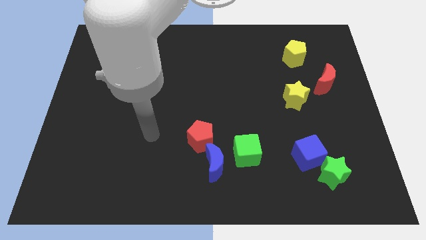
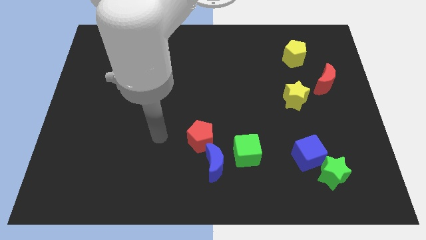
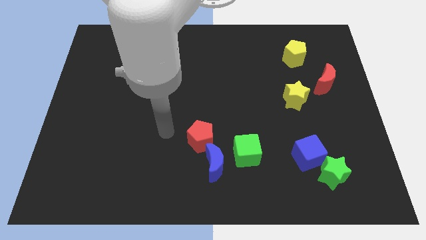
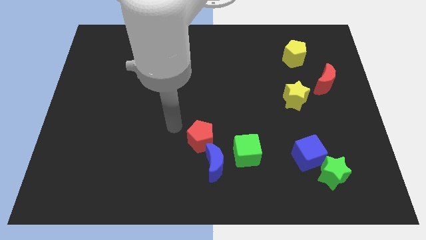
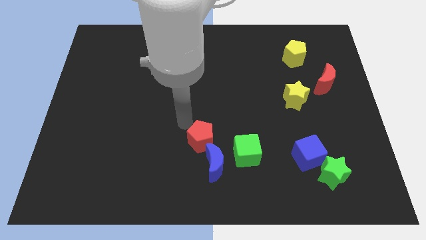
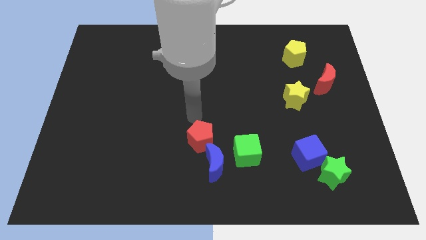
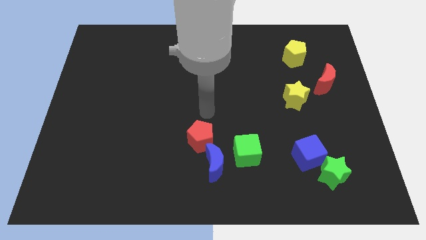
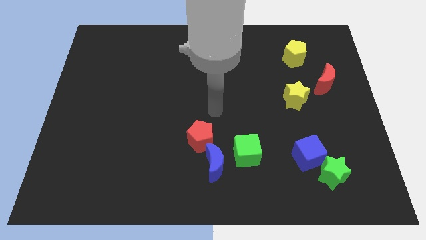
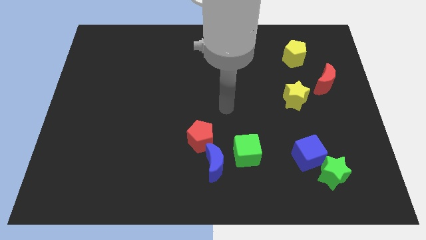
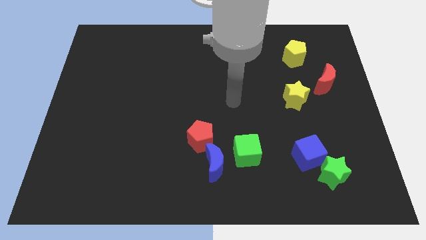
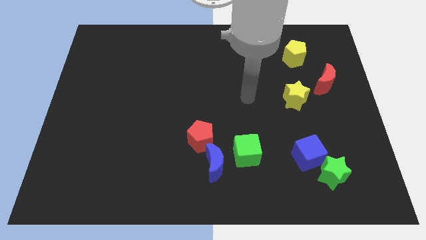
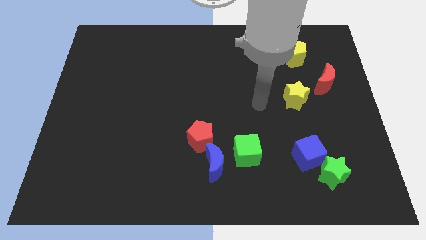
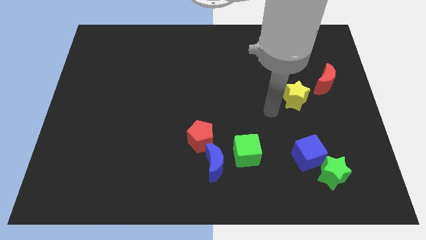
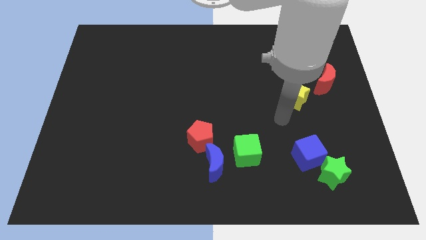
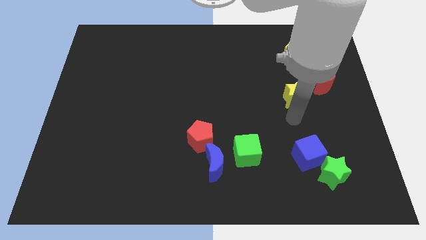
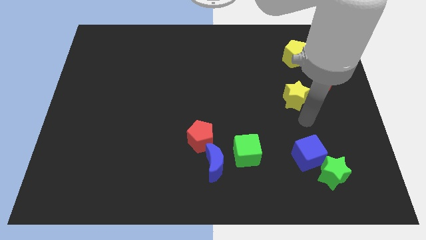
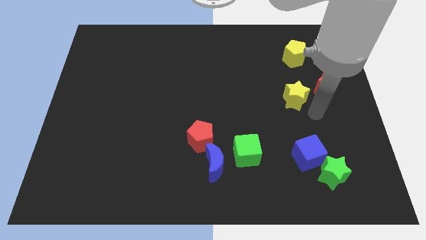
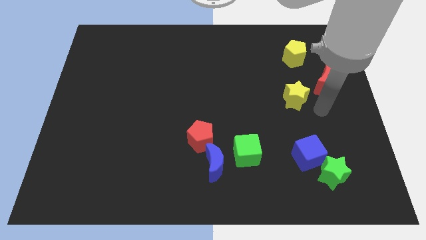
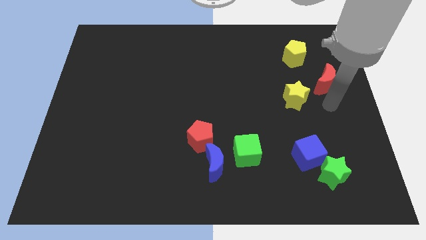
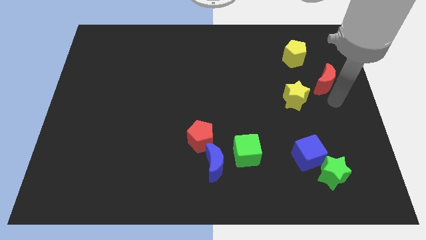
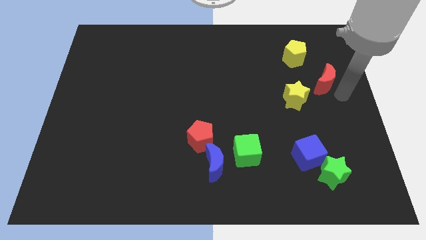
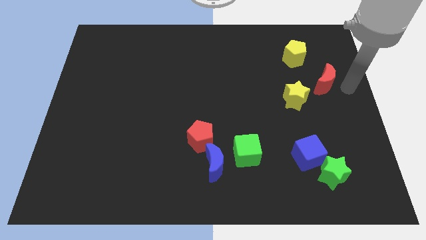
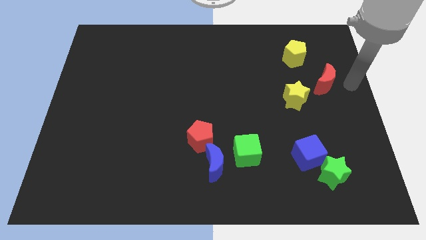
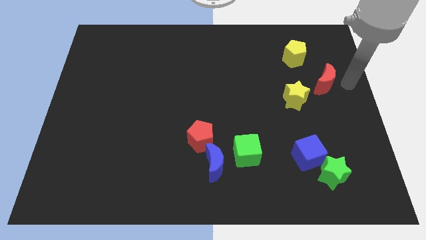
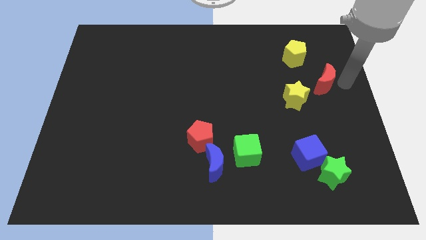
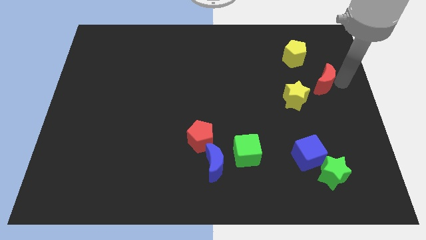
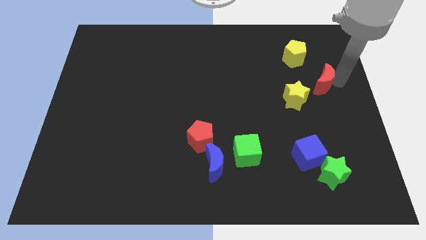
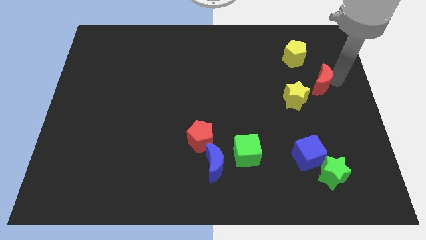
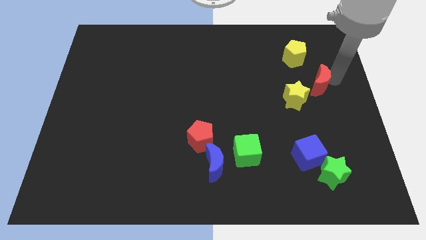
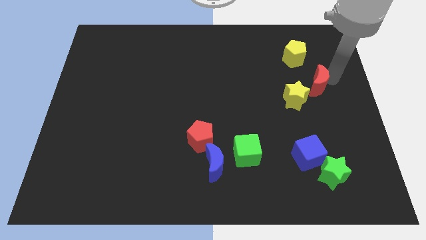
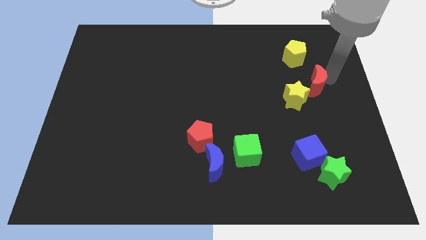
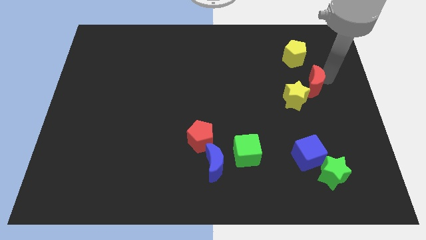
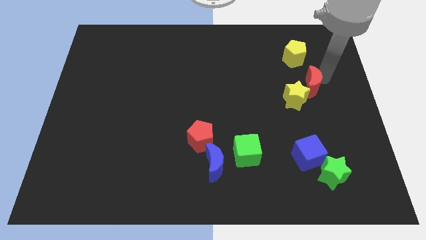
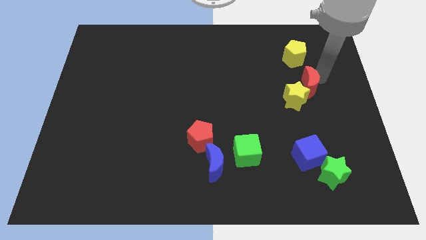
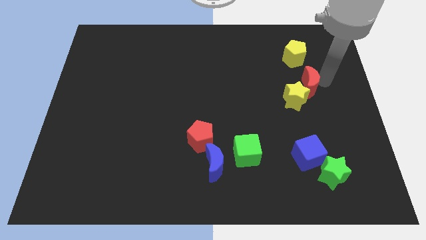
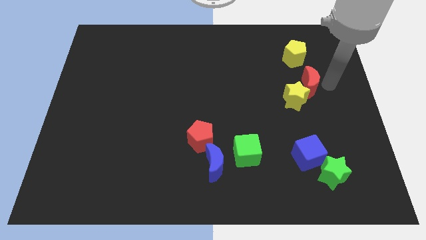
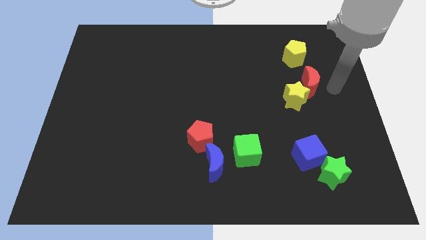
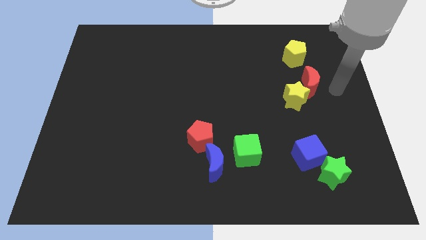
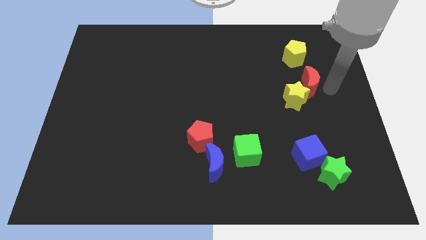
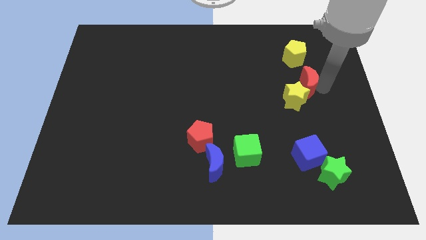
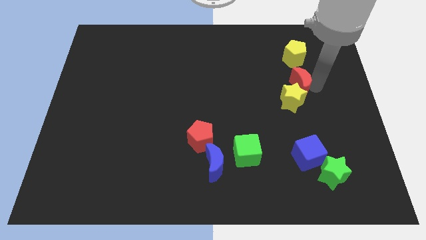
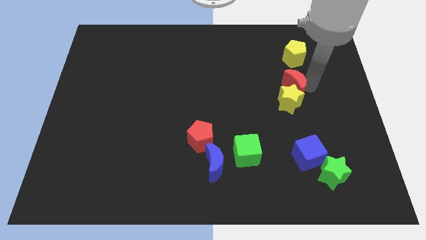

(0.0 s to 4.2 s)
slightly push the red moon left

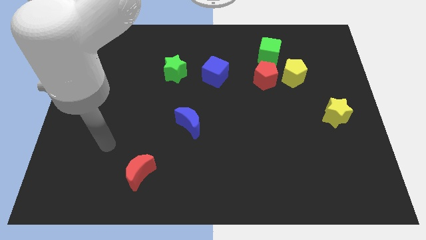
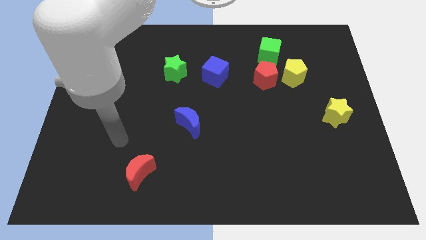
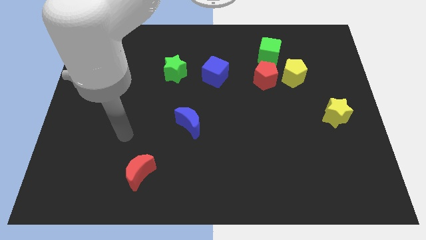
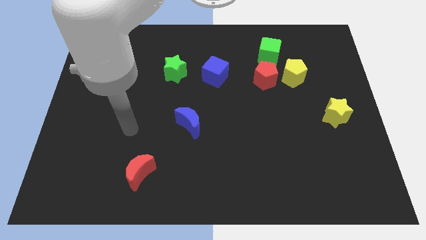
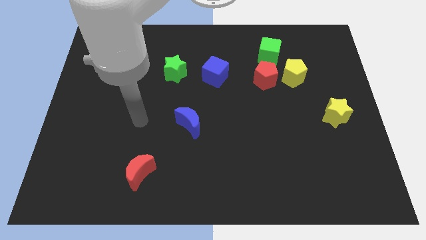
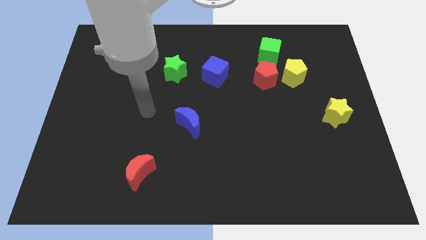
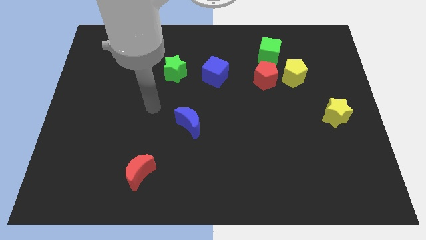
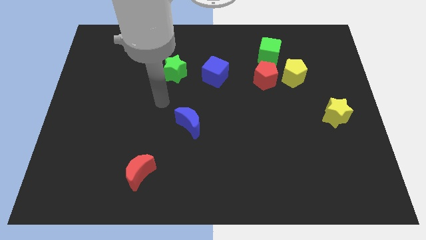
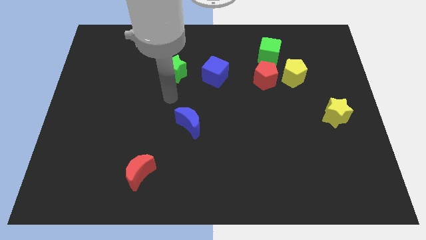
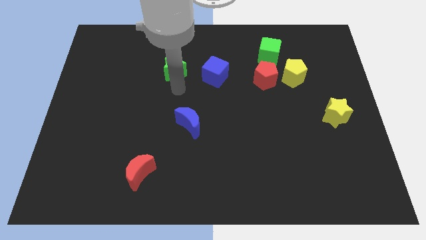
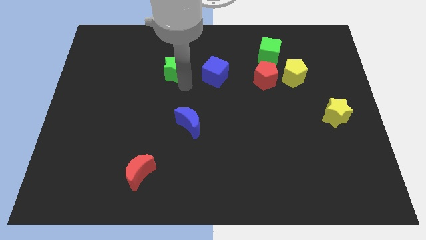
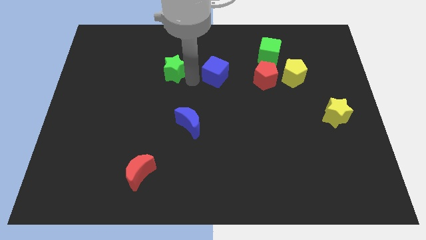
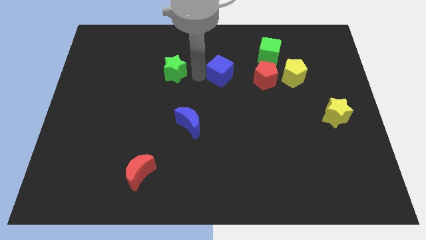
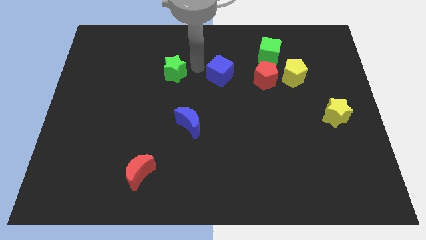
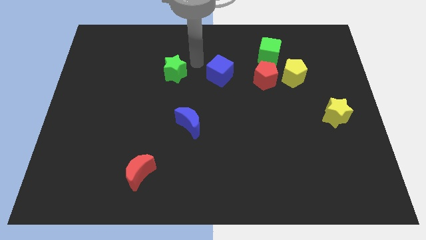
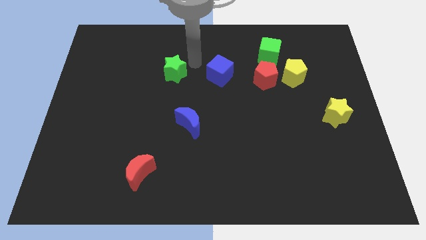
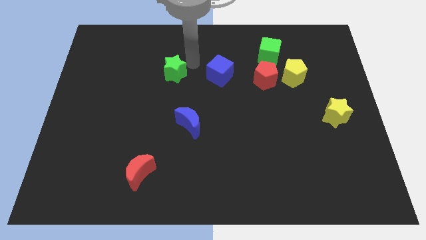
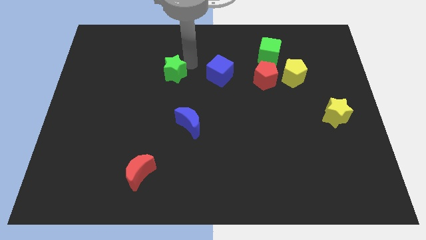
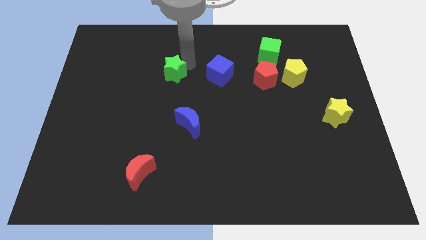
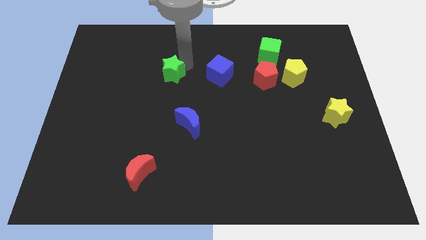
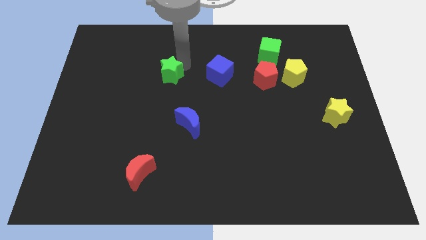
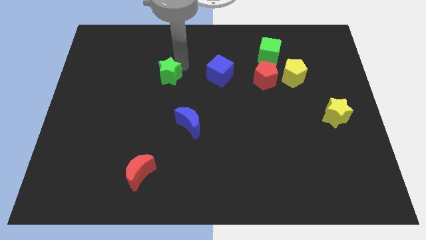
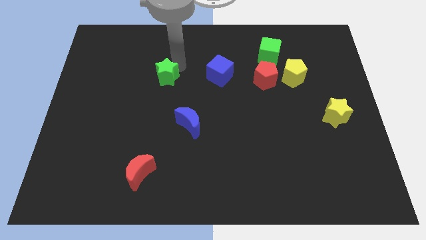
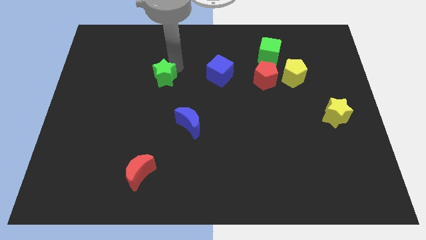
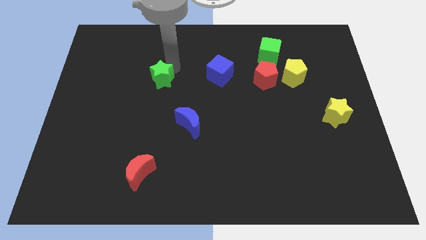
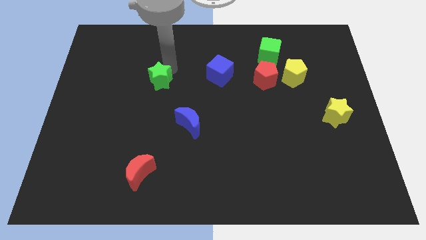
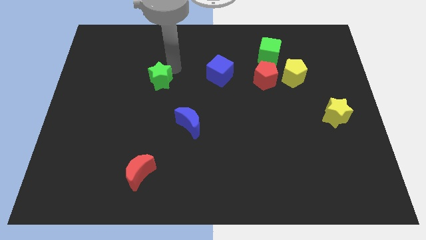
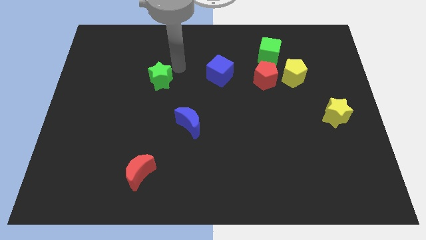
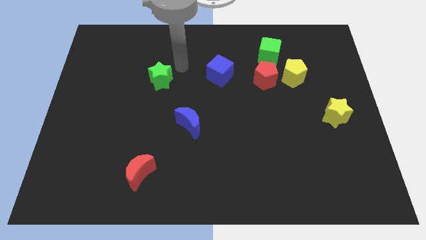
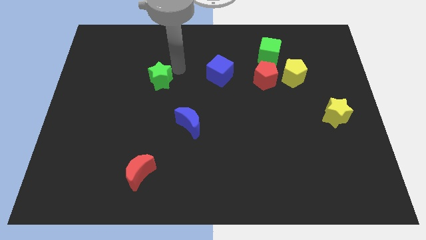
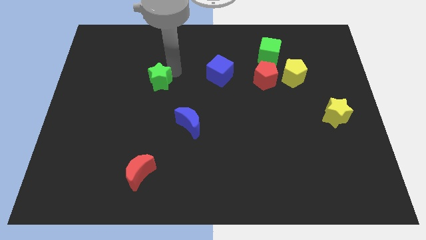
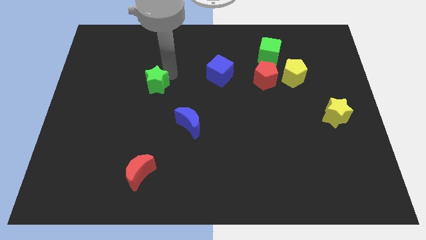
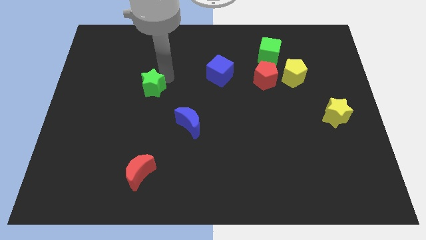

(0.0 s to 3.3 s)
slightly slide the green star downwards and to the left

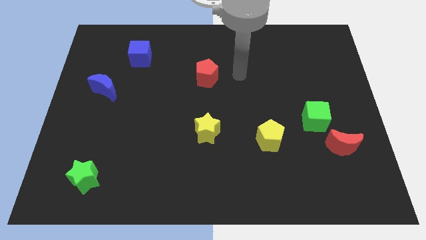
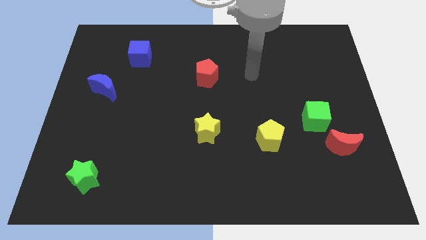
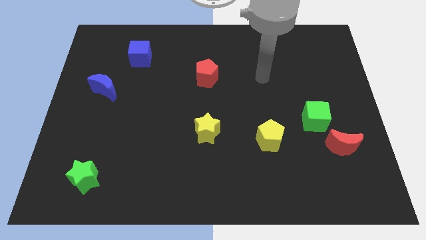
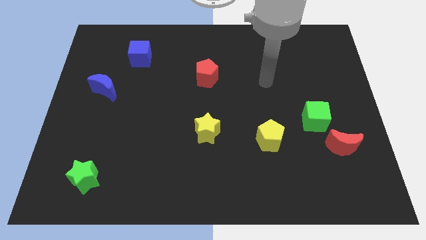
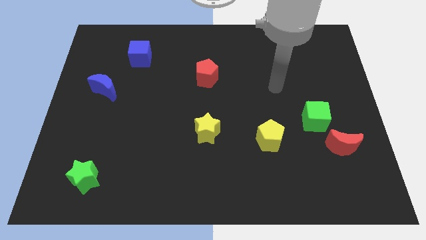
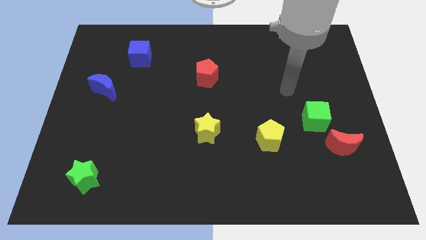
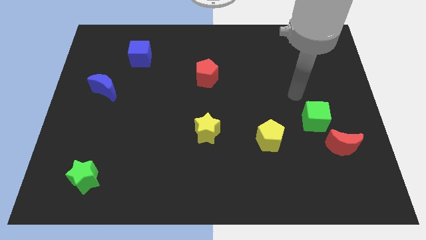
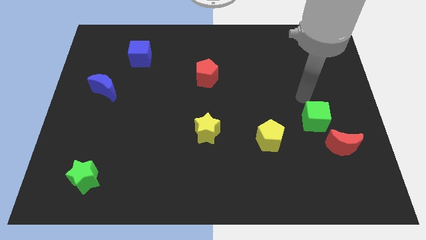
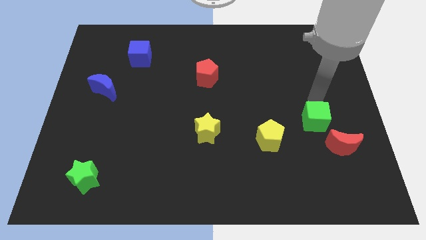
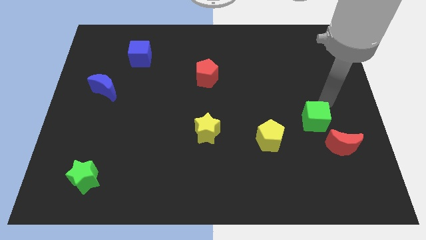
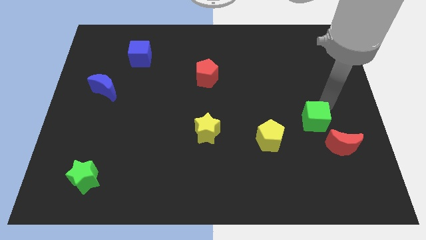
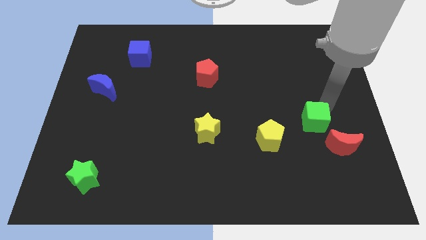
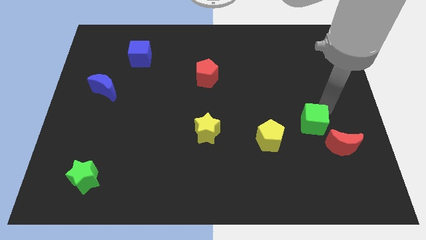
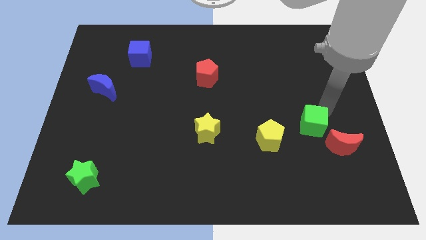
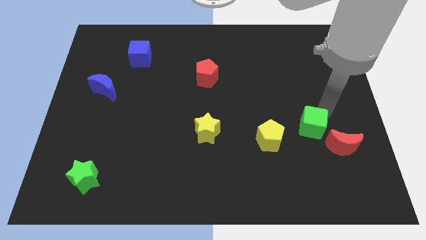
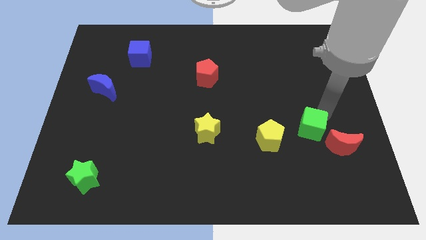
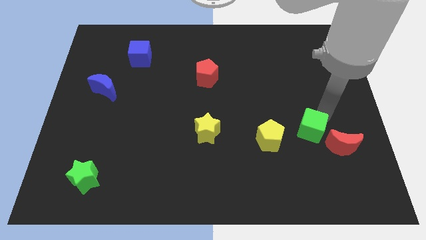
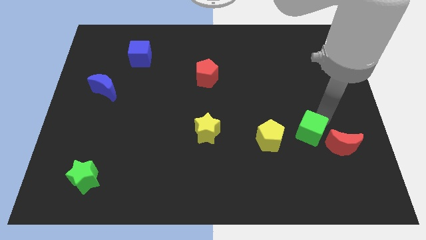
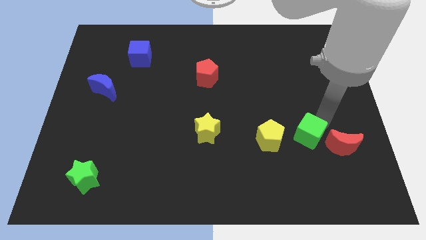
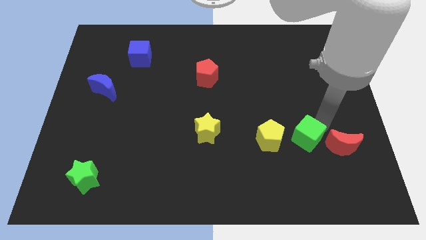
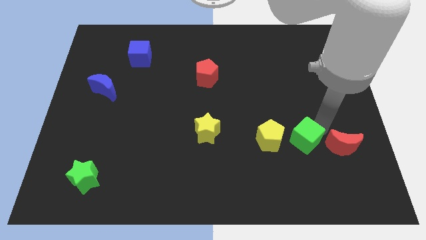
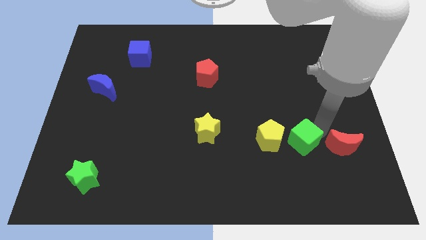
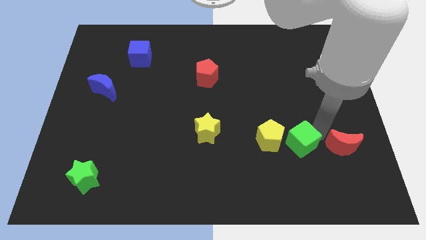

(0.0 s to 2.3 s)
slide the green cube downwards and left a bit
